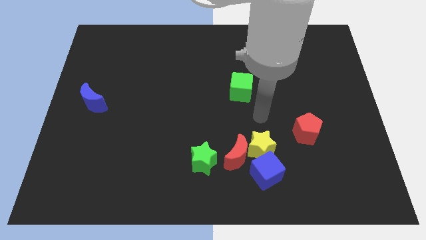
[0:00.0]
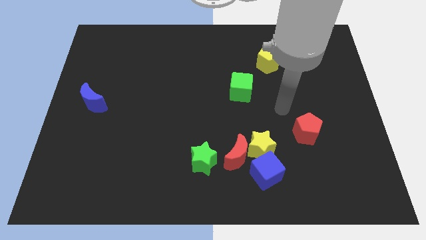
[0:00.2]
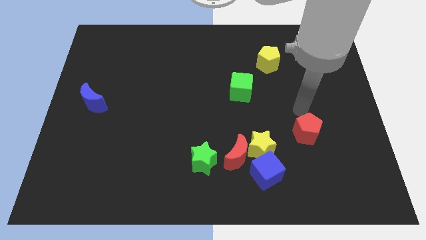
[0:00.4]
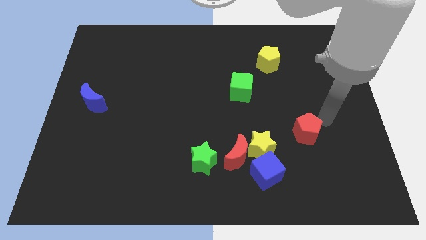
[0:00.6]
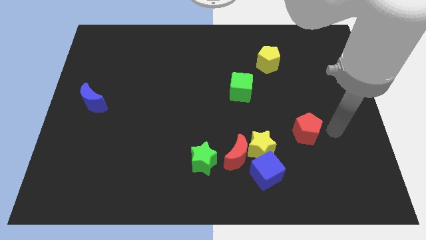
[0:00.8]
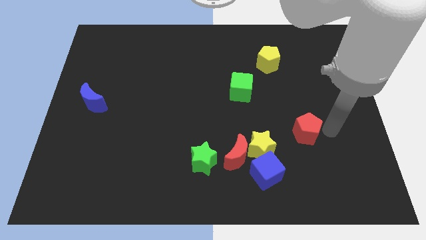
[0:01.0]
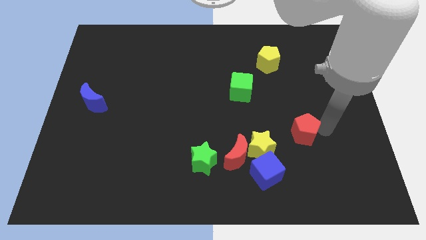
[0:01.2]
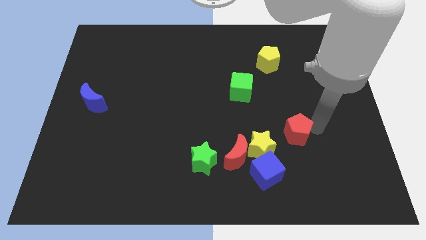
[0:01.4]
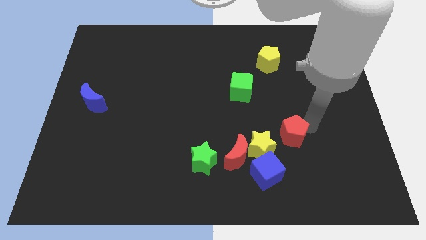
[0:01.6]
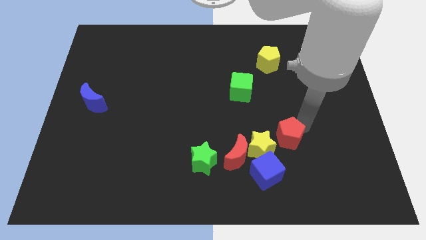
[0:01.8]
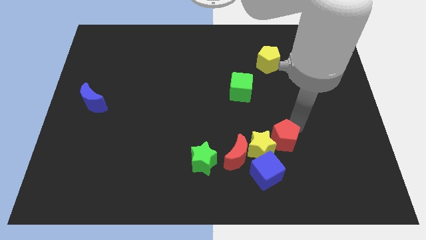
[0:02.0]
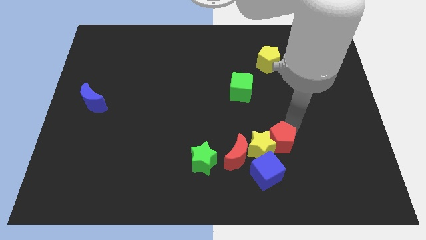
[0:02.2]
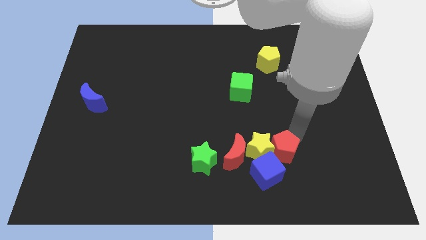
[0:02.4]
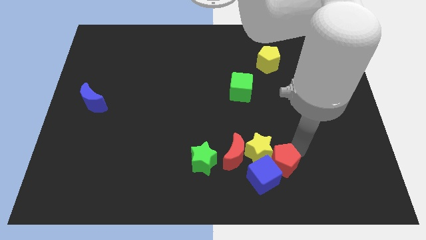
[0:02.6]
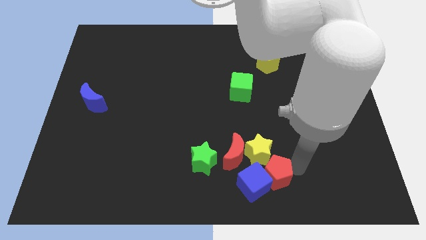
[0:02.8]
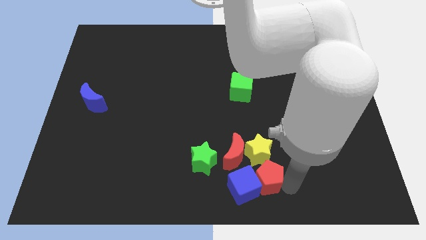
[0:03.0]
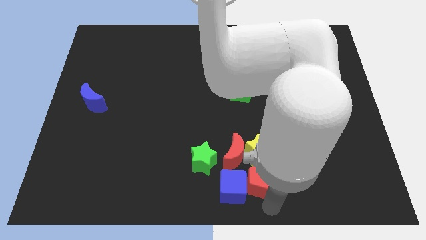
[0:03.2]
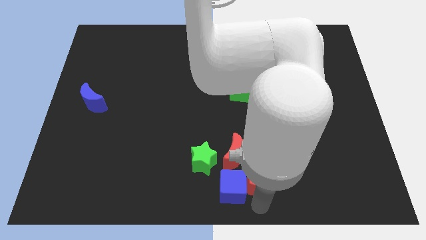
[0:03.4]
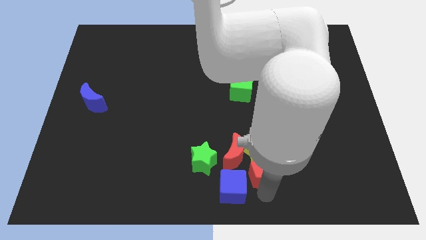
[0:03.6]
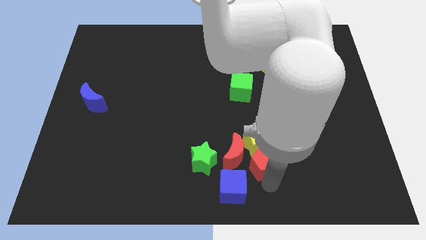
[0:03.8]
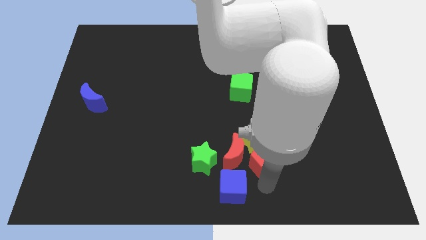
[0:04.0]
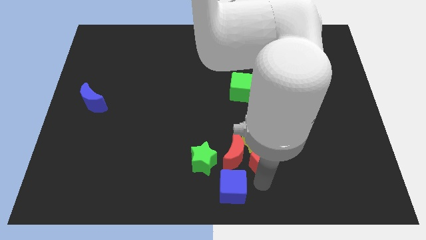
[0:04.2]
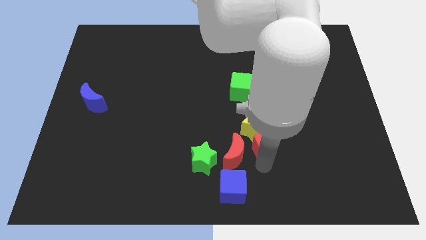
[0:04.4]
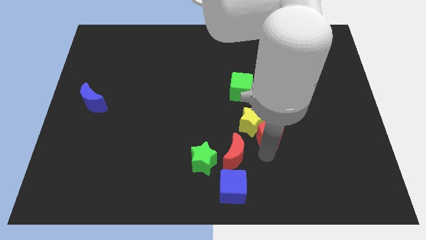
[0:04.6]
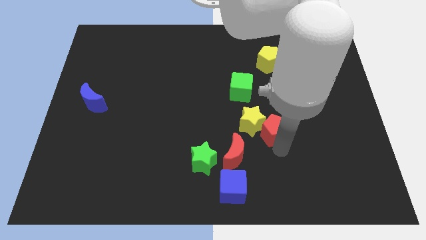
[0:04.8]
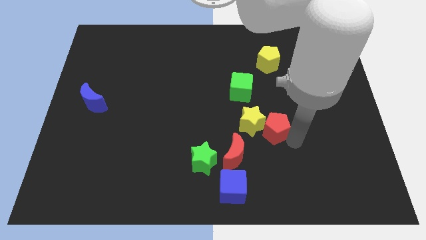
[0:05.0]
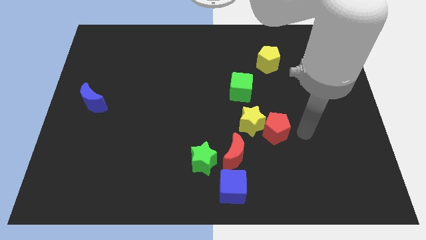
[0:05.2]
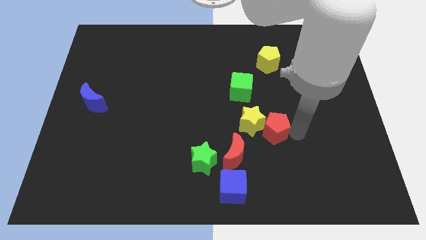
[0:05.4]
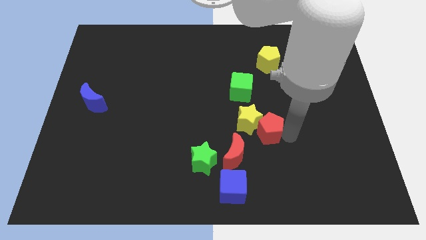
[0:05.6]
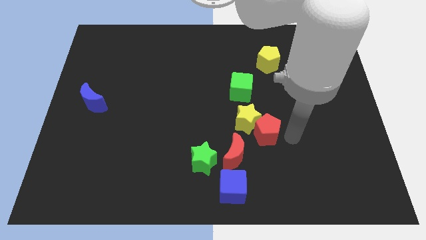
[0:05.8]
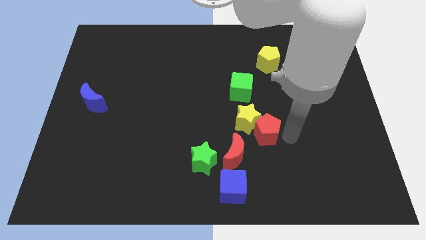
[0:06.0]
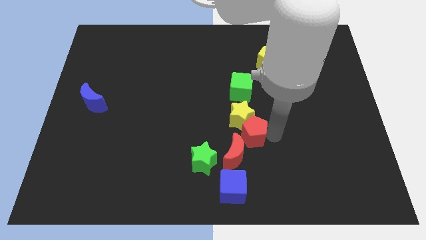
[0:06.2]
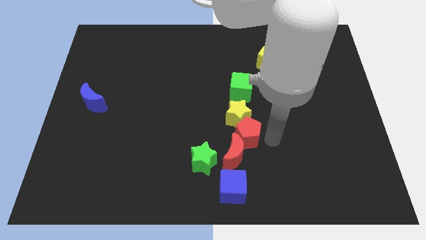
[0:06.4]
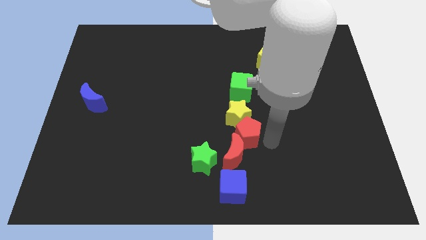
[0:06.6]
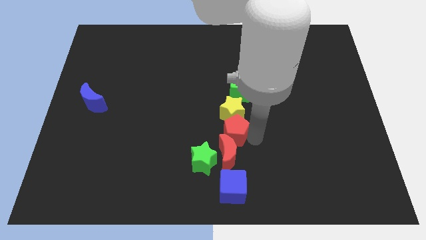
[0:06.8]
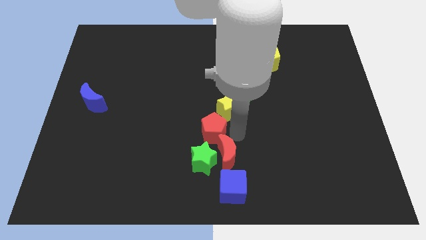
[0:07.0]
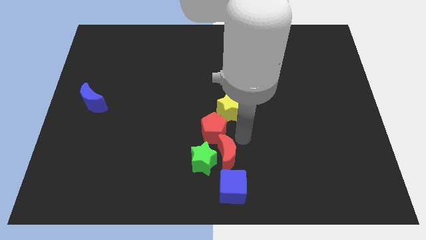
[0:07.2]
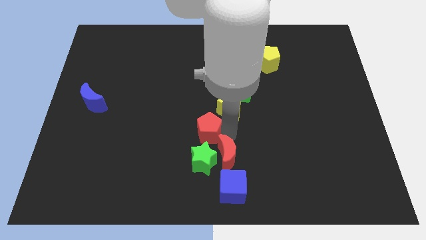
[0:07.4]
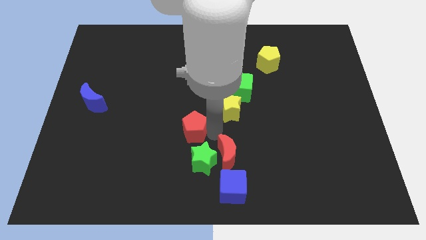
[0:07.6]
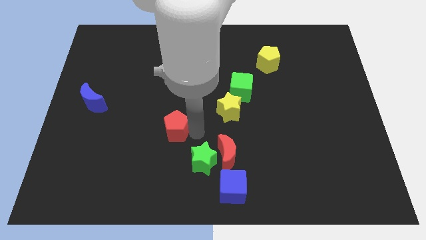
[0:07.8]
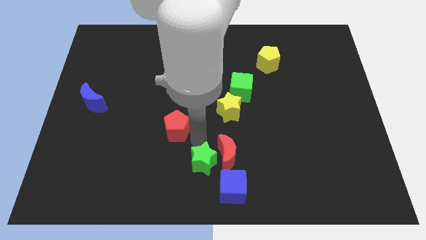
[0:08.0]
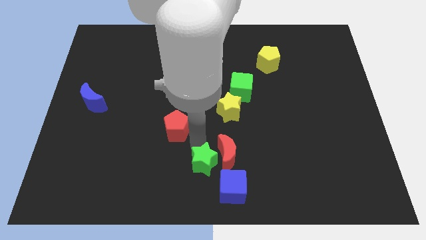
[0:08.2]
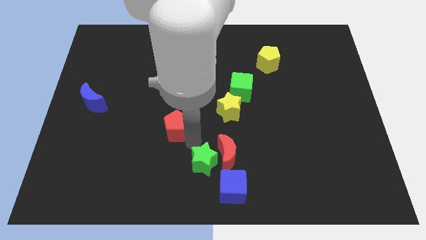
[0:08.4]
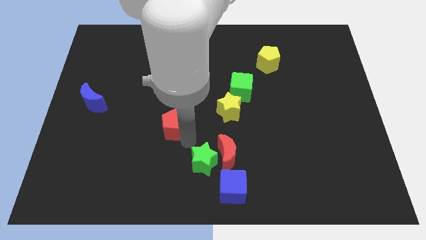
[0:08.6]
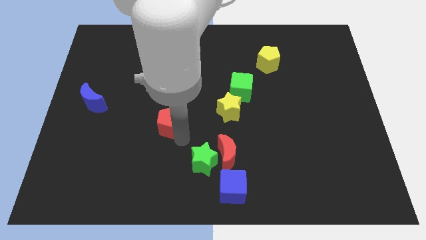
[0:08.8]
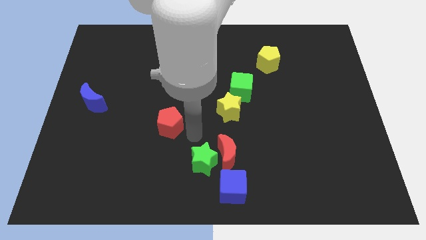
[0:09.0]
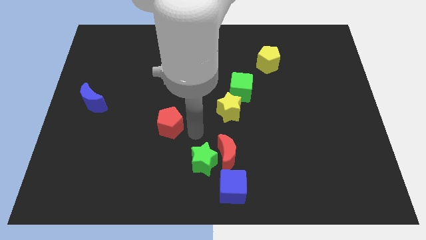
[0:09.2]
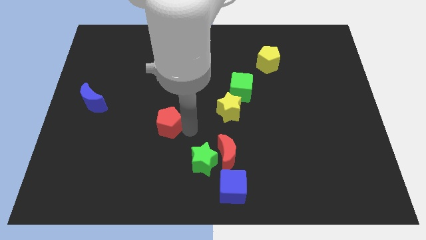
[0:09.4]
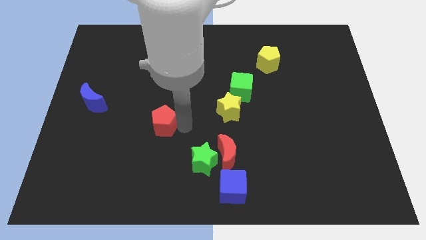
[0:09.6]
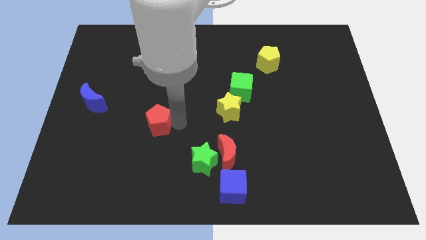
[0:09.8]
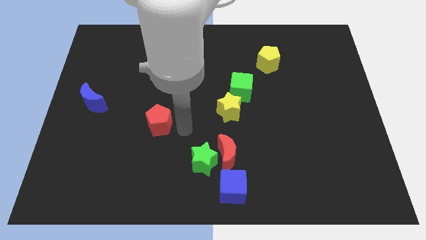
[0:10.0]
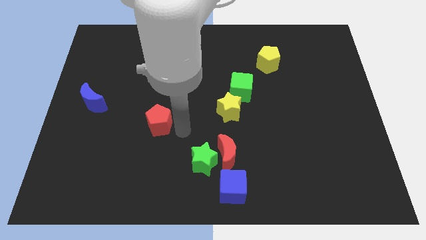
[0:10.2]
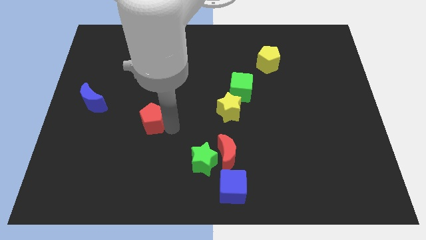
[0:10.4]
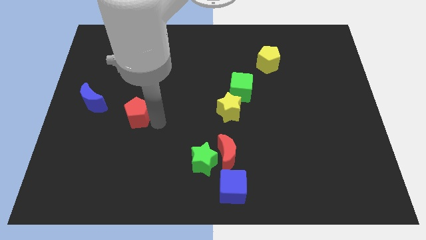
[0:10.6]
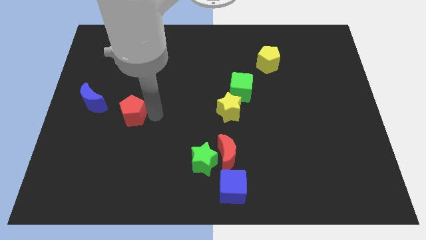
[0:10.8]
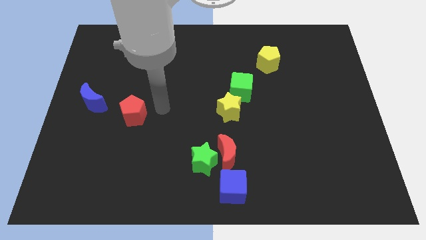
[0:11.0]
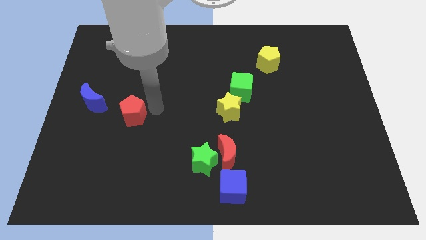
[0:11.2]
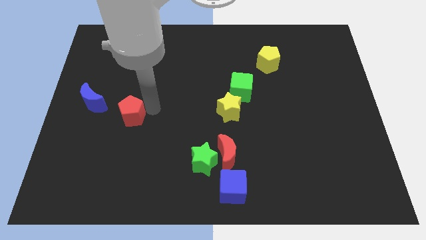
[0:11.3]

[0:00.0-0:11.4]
move the red pentagon to the bottom right of the blue moon

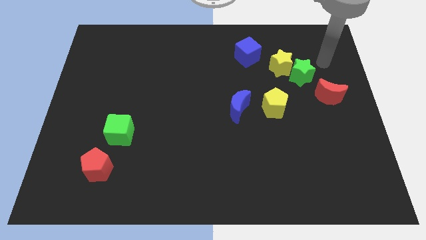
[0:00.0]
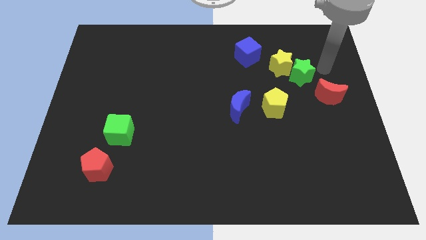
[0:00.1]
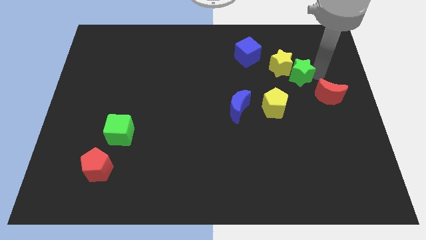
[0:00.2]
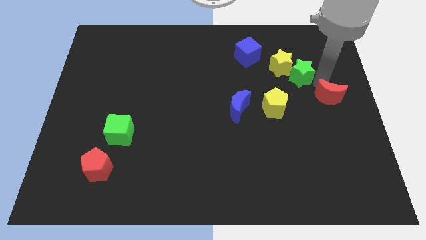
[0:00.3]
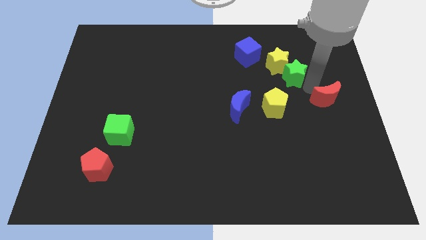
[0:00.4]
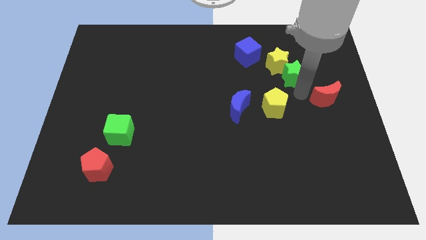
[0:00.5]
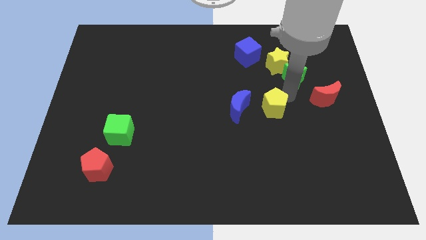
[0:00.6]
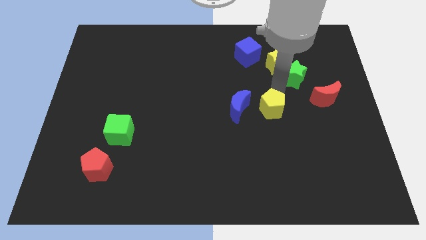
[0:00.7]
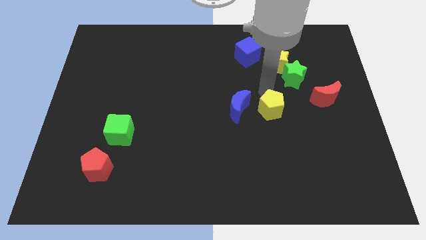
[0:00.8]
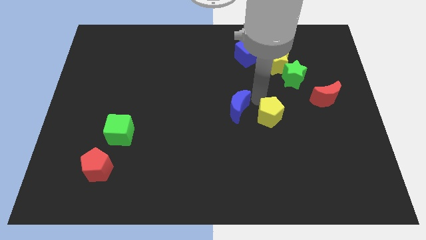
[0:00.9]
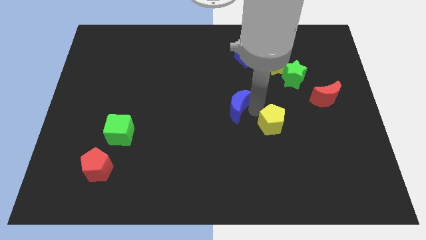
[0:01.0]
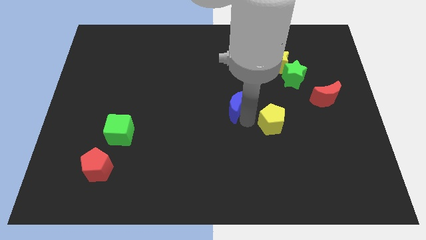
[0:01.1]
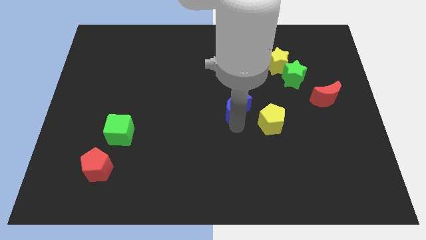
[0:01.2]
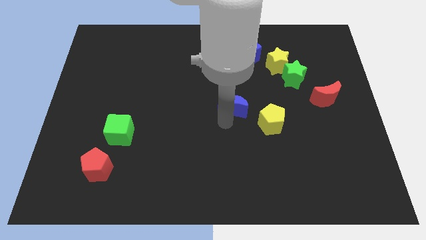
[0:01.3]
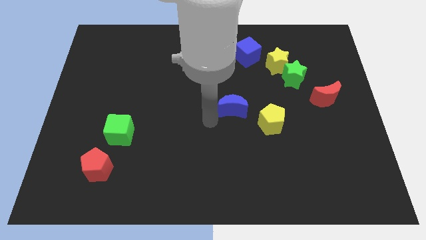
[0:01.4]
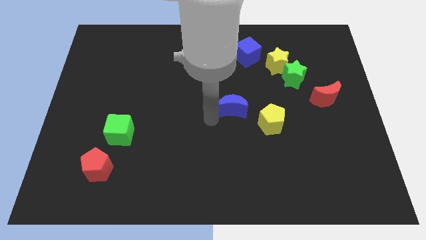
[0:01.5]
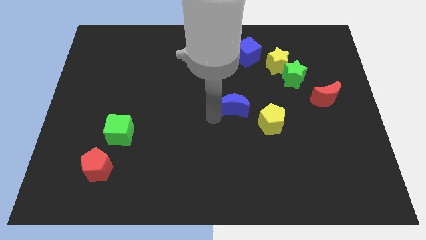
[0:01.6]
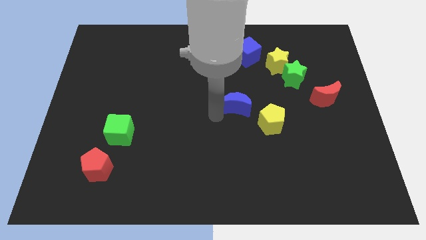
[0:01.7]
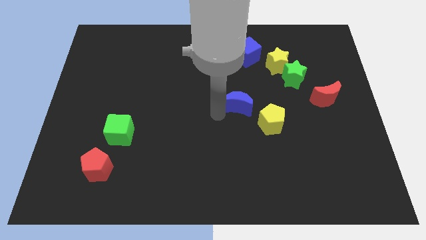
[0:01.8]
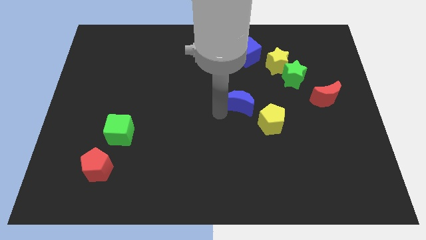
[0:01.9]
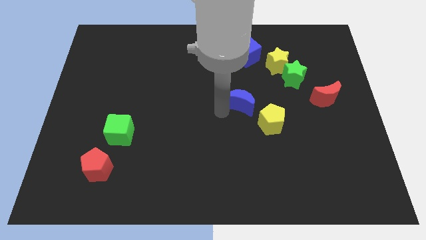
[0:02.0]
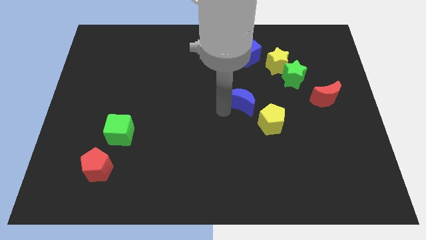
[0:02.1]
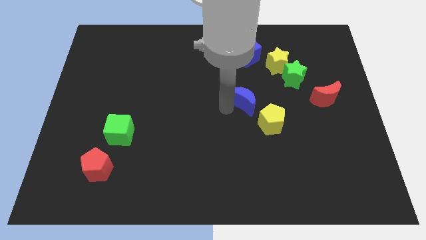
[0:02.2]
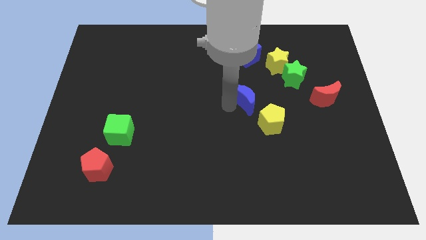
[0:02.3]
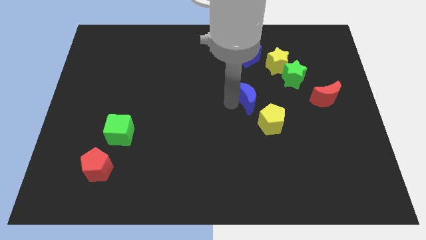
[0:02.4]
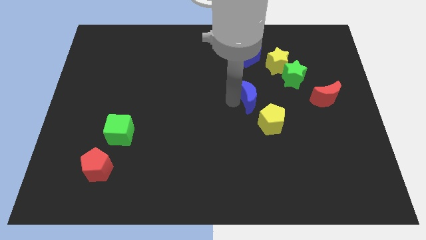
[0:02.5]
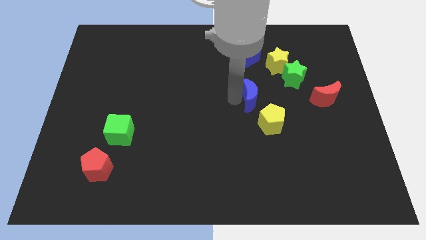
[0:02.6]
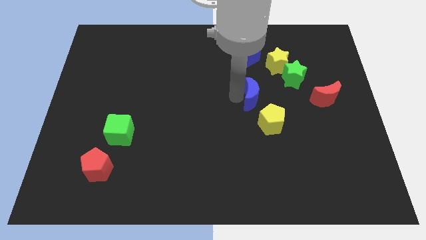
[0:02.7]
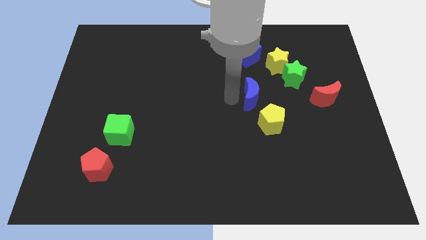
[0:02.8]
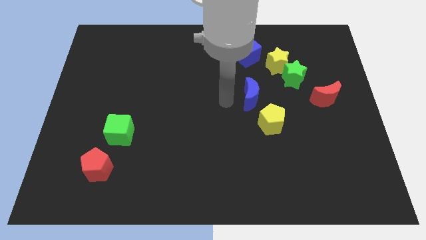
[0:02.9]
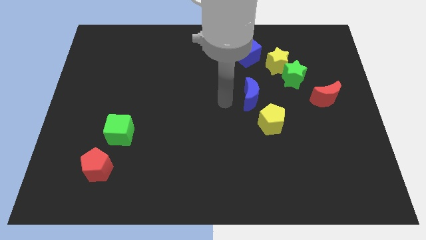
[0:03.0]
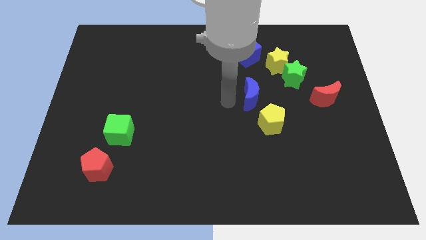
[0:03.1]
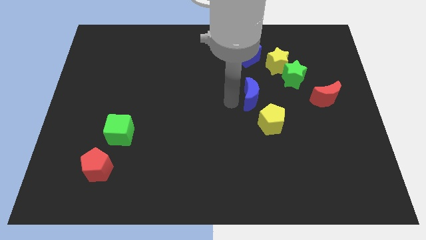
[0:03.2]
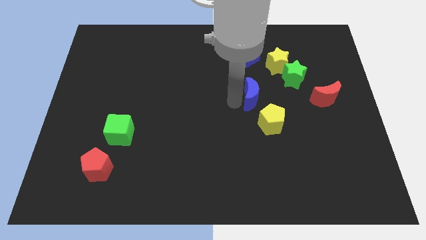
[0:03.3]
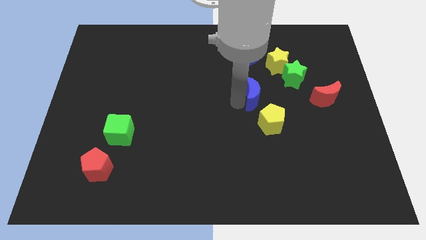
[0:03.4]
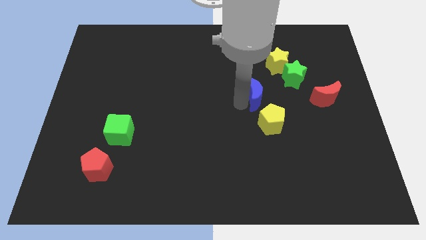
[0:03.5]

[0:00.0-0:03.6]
move the blue moon to the bottom left of the green star
